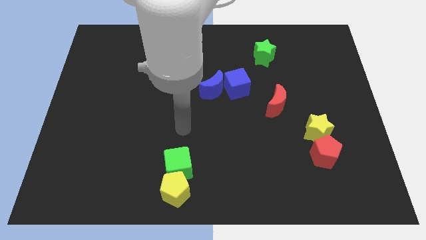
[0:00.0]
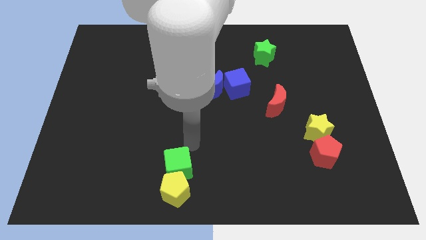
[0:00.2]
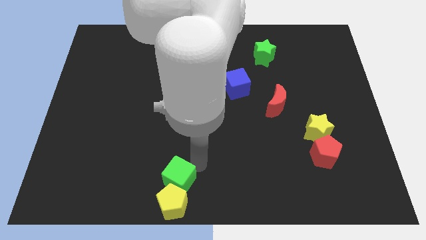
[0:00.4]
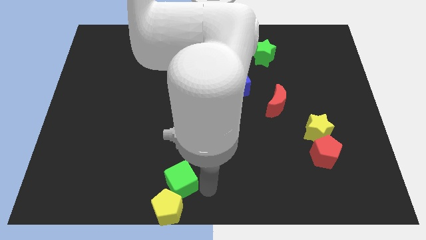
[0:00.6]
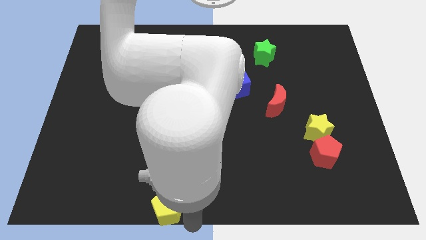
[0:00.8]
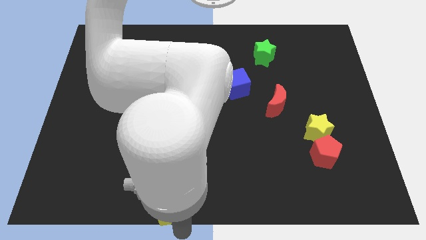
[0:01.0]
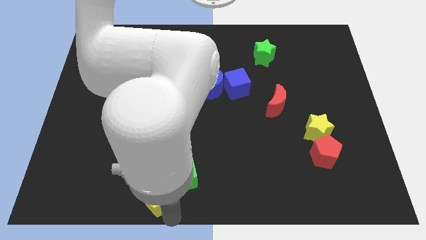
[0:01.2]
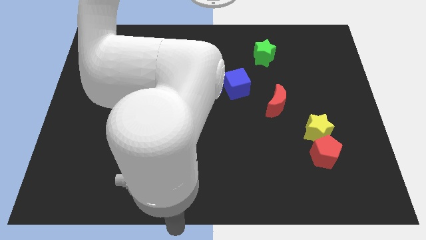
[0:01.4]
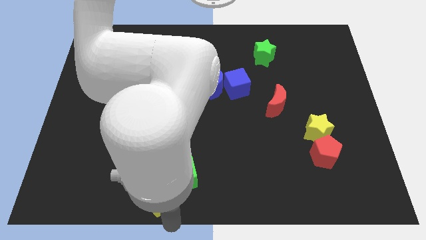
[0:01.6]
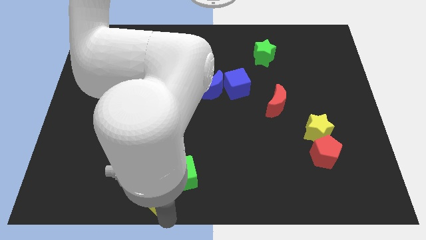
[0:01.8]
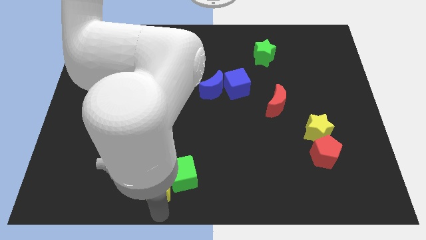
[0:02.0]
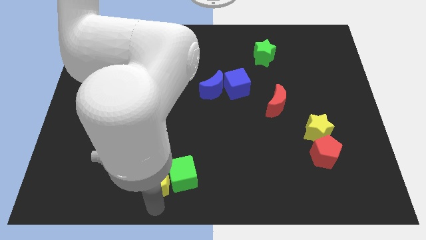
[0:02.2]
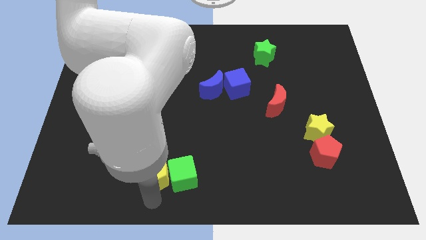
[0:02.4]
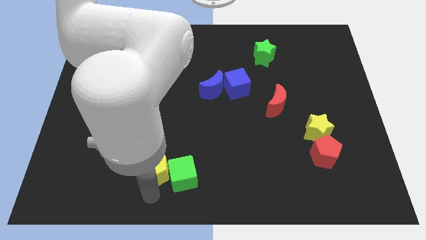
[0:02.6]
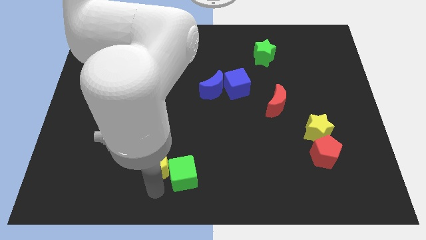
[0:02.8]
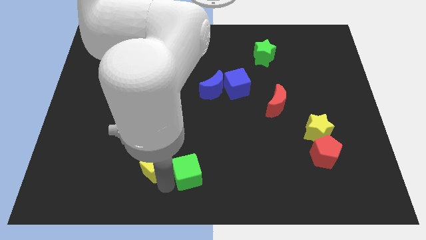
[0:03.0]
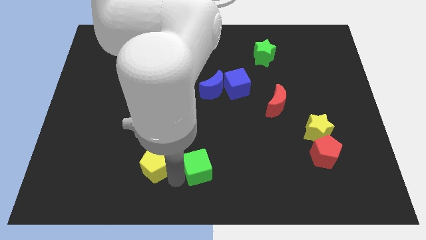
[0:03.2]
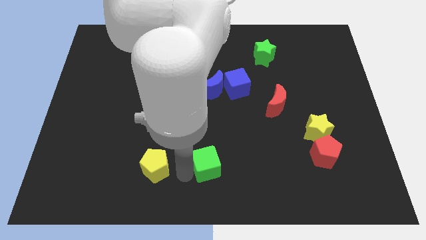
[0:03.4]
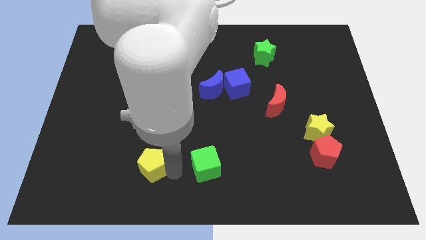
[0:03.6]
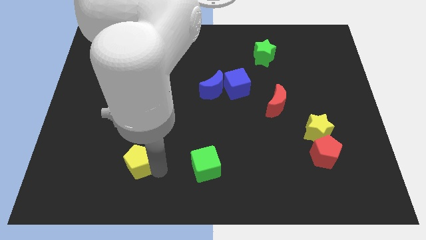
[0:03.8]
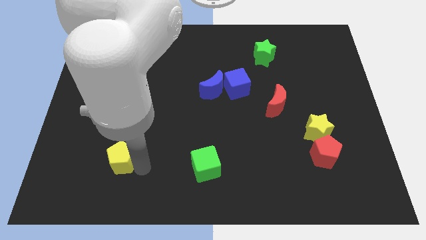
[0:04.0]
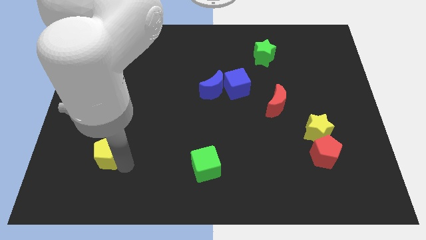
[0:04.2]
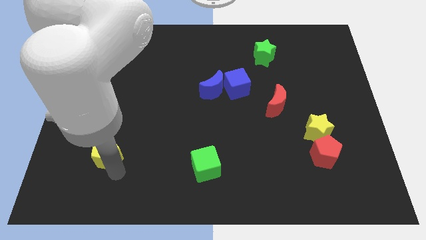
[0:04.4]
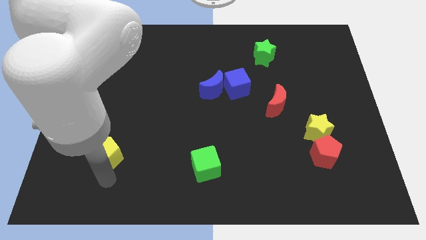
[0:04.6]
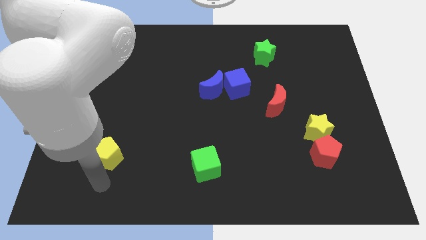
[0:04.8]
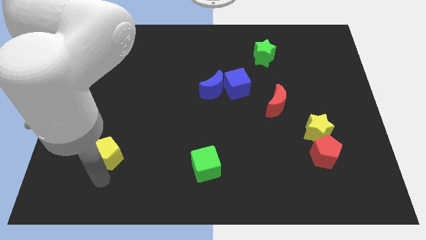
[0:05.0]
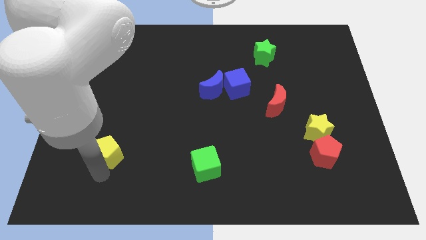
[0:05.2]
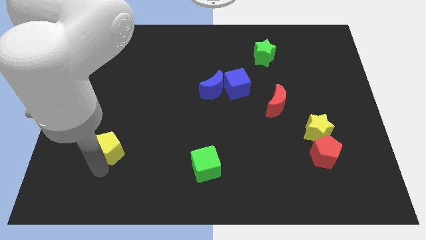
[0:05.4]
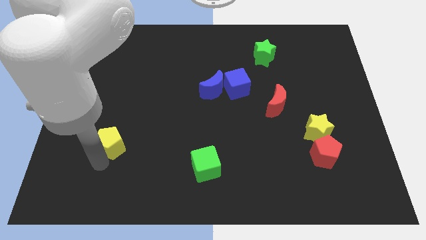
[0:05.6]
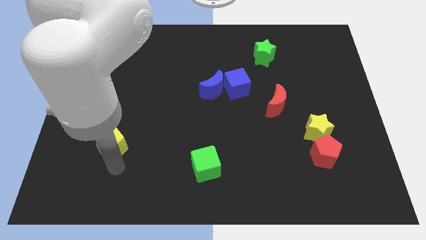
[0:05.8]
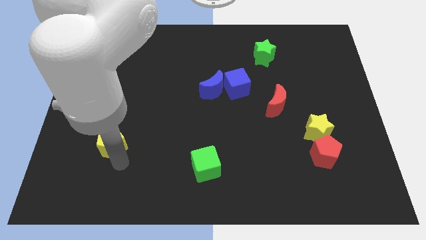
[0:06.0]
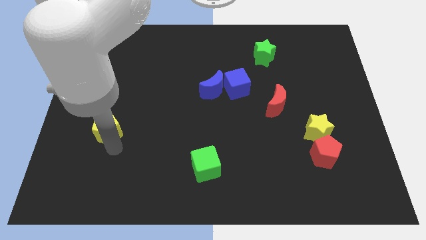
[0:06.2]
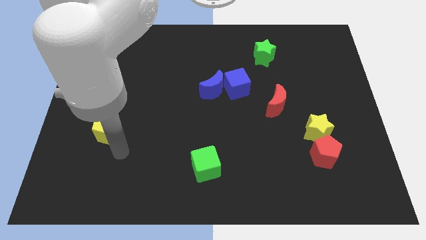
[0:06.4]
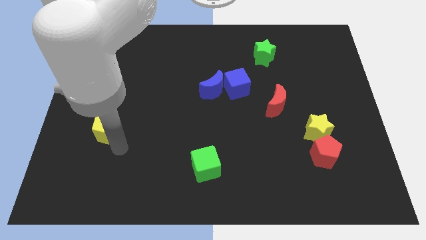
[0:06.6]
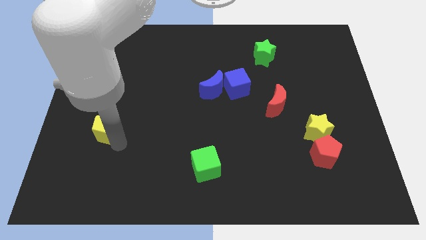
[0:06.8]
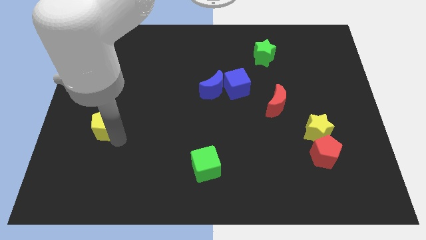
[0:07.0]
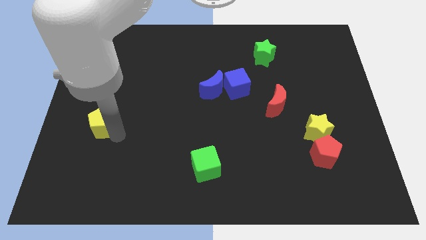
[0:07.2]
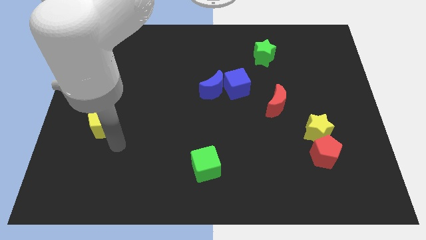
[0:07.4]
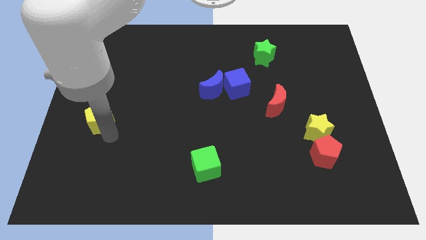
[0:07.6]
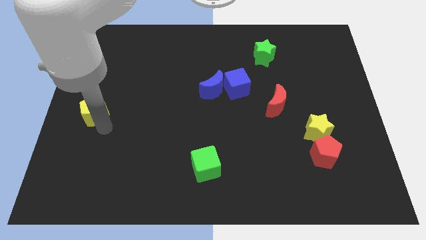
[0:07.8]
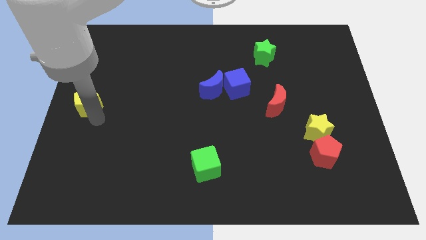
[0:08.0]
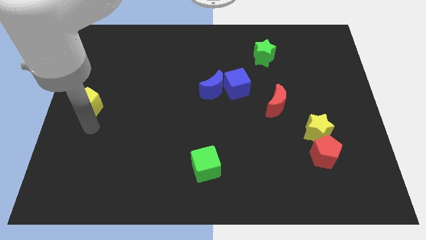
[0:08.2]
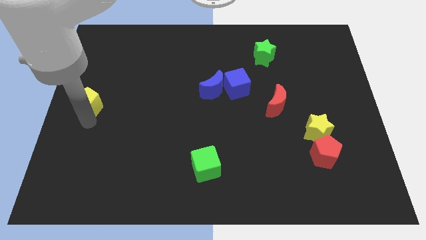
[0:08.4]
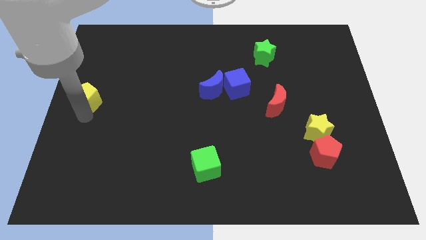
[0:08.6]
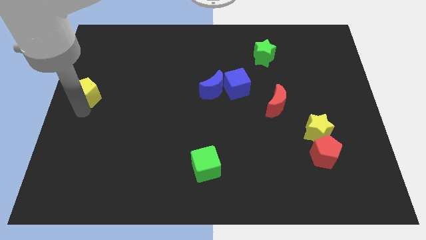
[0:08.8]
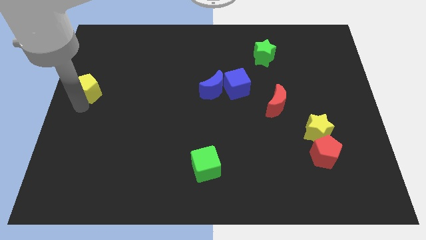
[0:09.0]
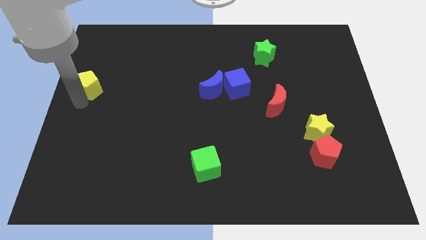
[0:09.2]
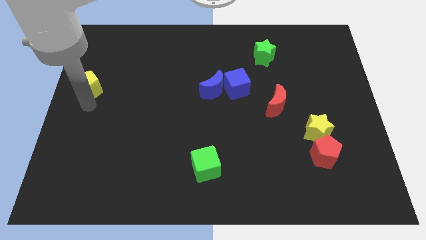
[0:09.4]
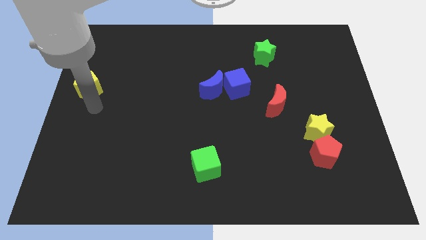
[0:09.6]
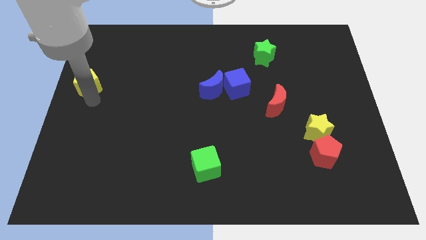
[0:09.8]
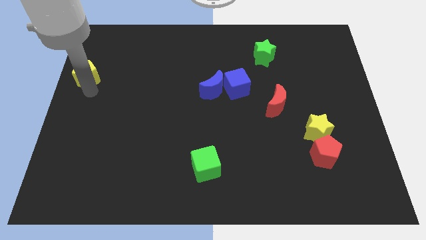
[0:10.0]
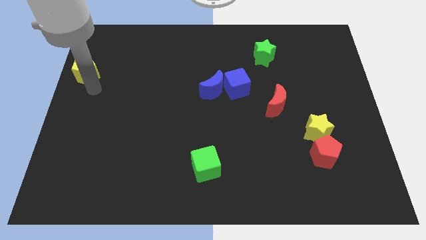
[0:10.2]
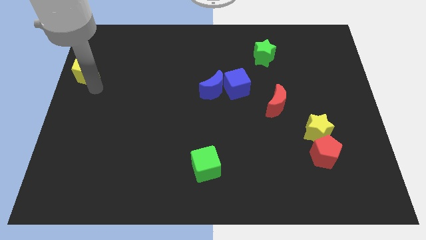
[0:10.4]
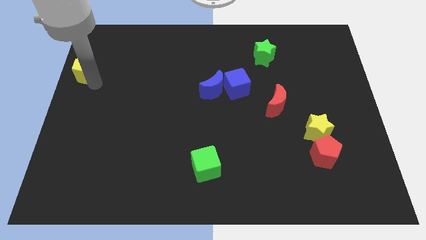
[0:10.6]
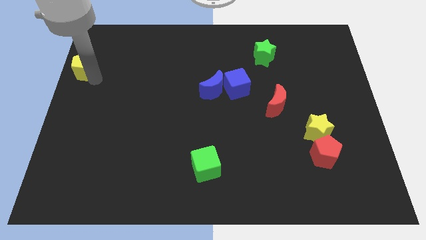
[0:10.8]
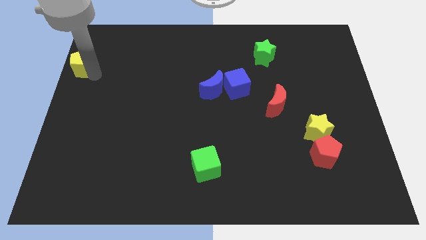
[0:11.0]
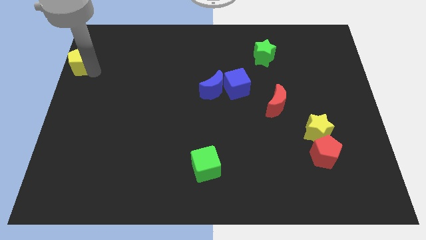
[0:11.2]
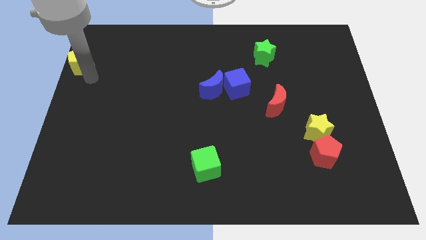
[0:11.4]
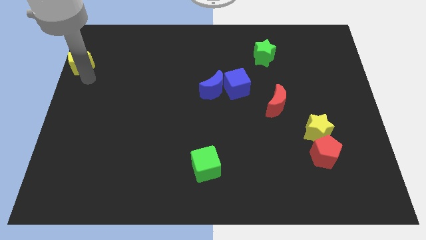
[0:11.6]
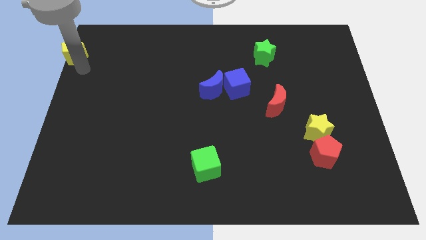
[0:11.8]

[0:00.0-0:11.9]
slide the yellow pentagon to the top left corner
